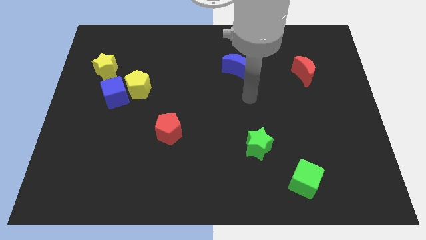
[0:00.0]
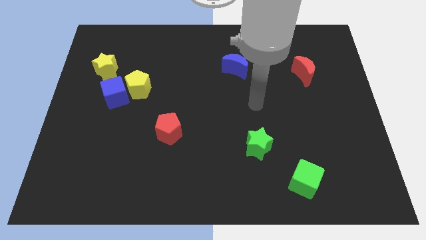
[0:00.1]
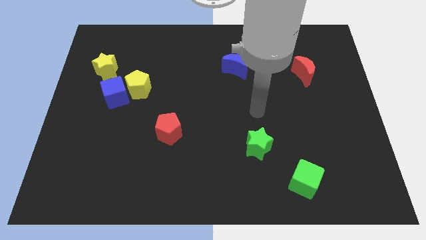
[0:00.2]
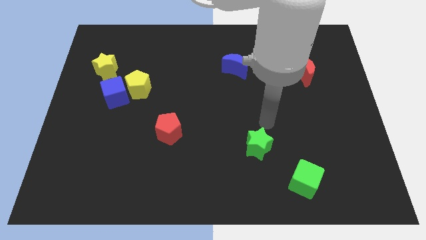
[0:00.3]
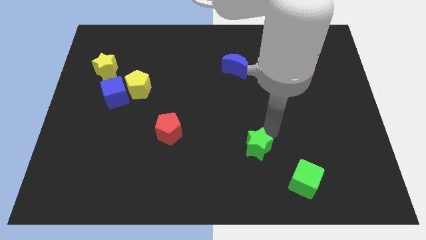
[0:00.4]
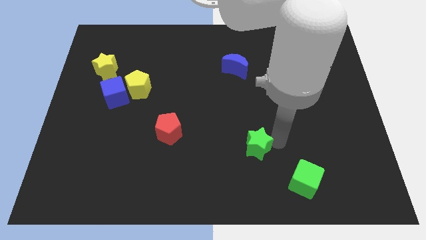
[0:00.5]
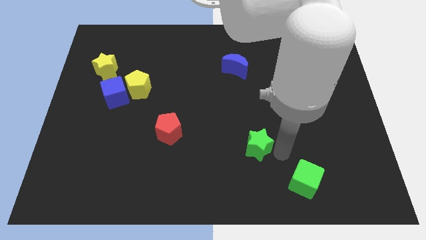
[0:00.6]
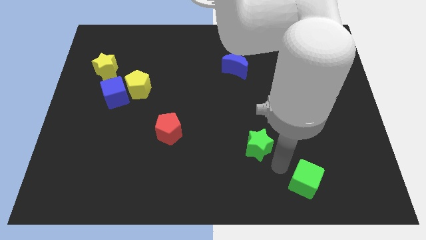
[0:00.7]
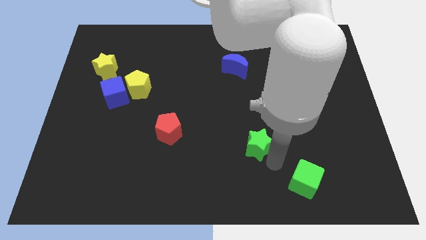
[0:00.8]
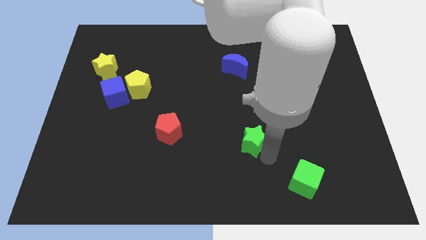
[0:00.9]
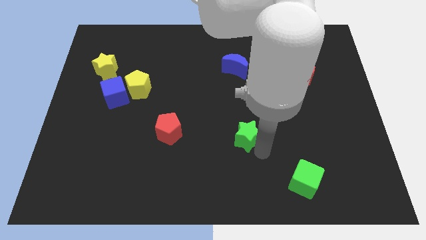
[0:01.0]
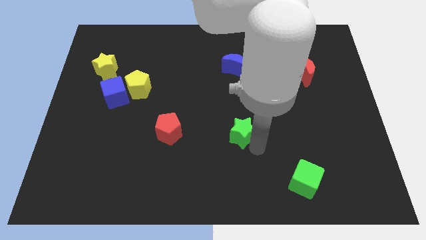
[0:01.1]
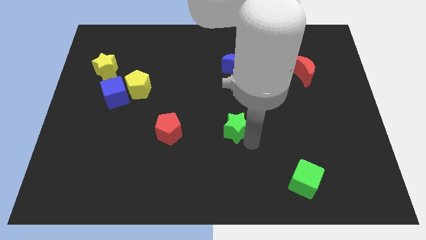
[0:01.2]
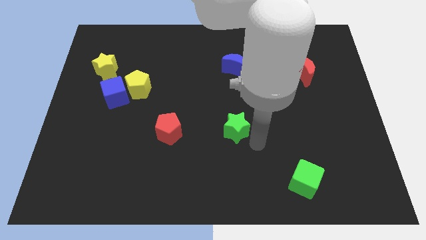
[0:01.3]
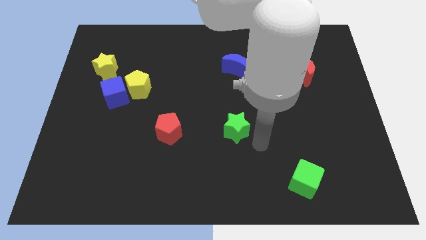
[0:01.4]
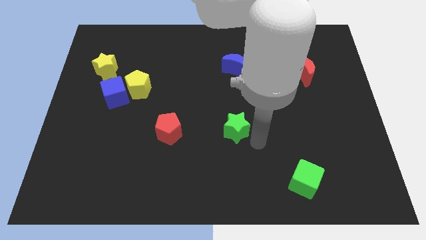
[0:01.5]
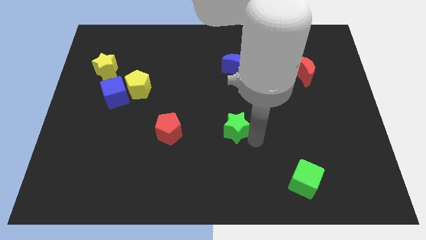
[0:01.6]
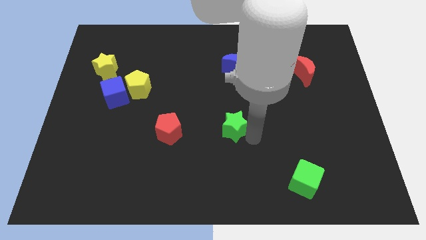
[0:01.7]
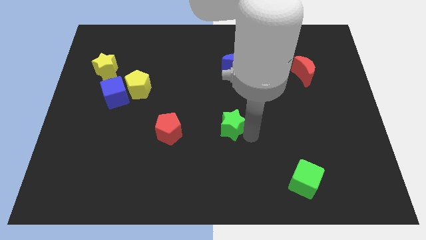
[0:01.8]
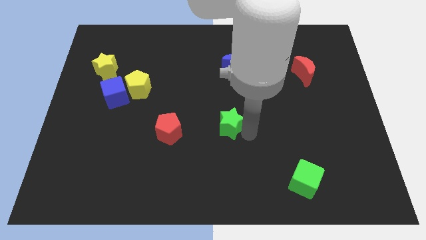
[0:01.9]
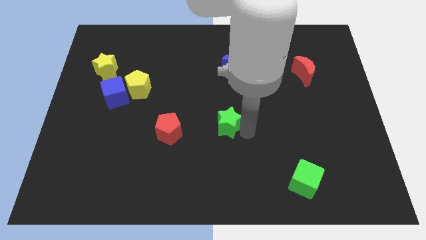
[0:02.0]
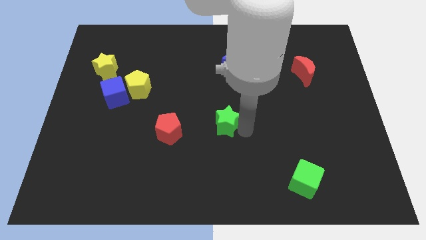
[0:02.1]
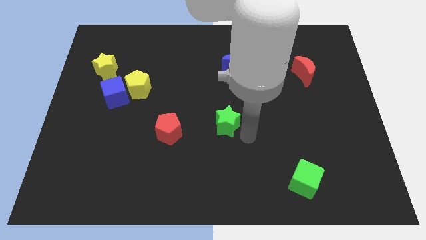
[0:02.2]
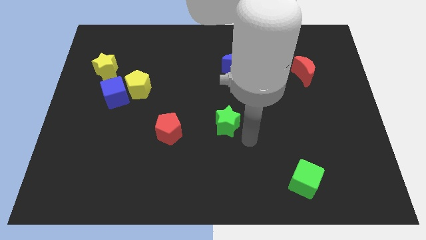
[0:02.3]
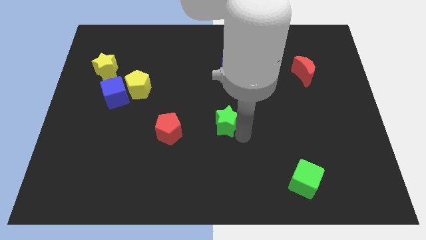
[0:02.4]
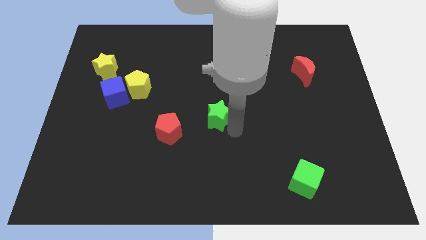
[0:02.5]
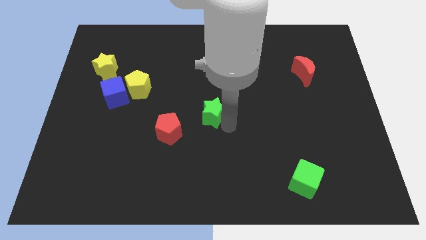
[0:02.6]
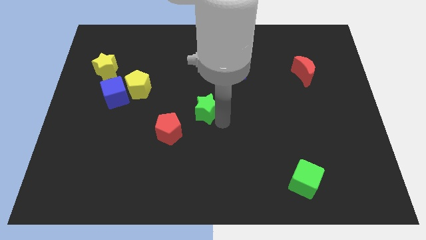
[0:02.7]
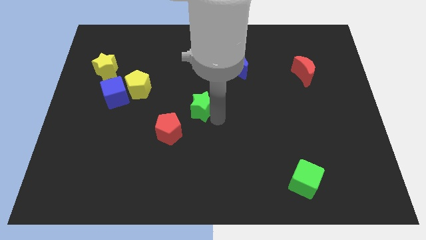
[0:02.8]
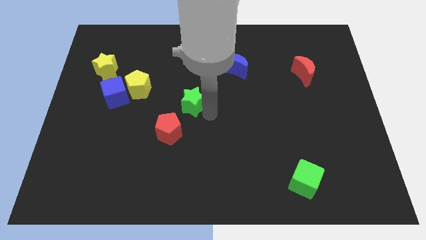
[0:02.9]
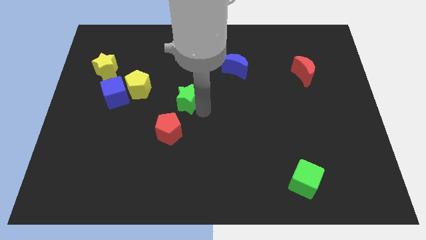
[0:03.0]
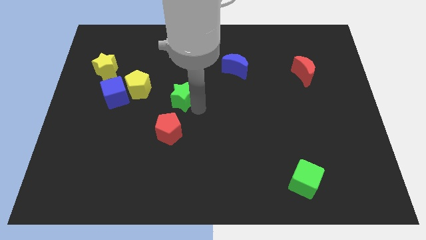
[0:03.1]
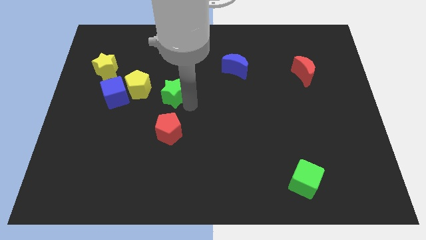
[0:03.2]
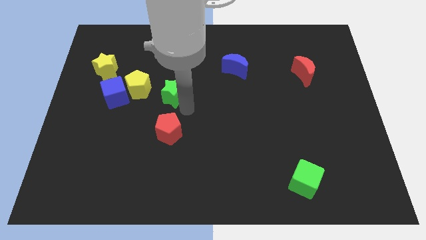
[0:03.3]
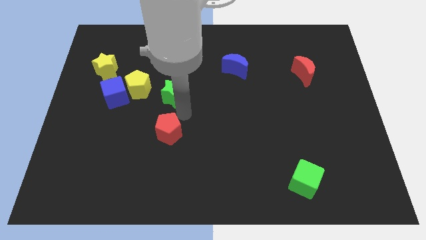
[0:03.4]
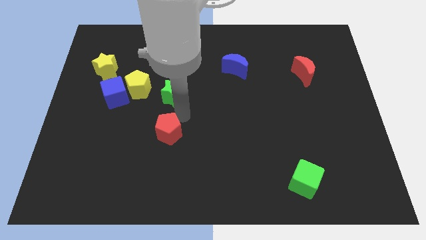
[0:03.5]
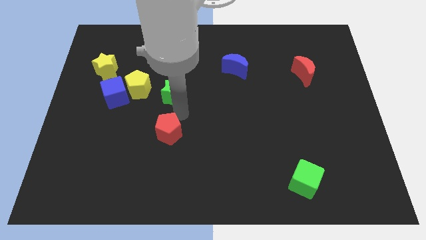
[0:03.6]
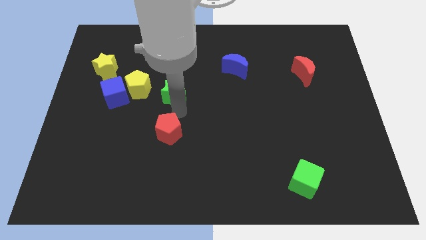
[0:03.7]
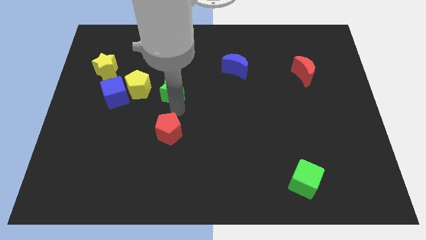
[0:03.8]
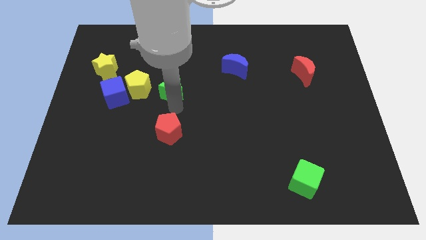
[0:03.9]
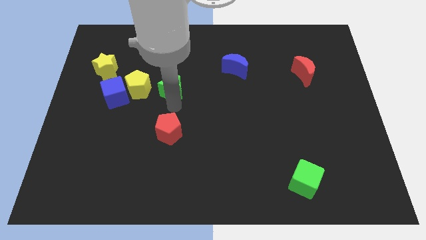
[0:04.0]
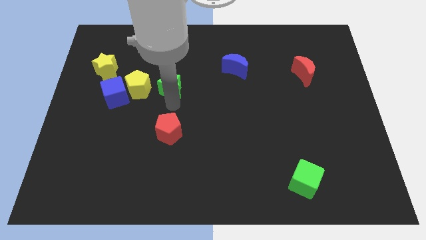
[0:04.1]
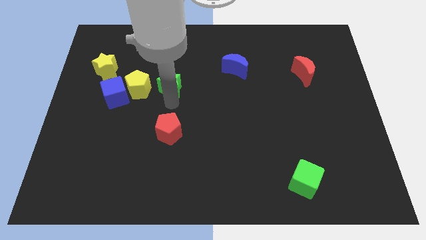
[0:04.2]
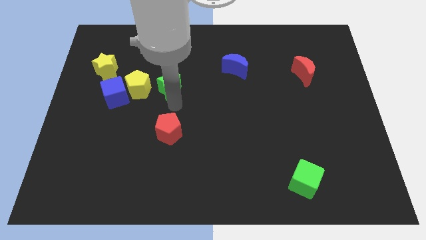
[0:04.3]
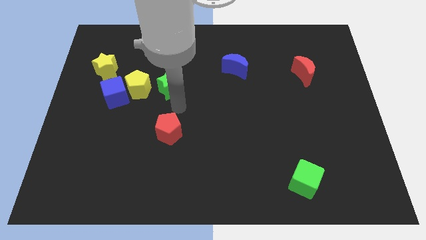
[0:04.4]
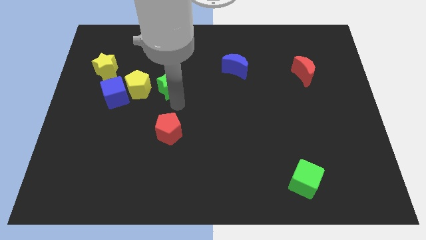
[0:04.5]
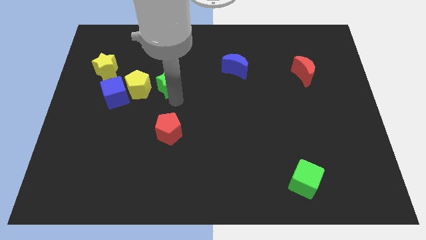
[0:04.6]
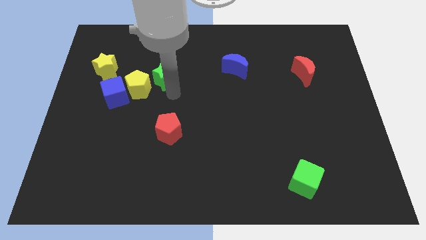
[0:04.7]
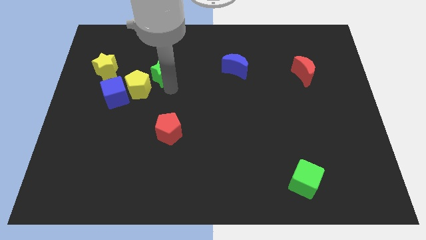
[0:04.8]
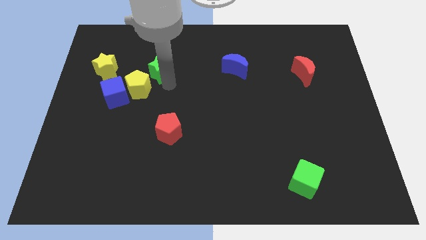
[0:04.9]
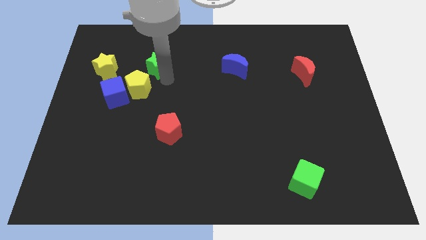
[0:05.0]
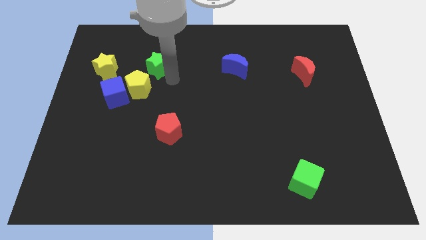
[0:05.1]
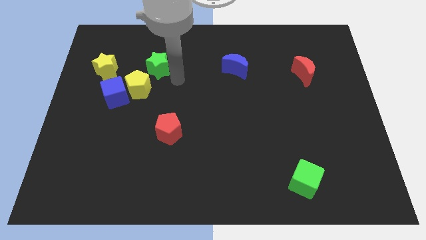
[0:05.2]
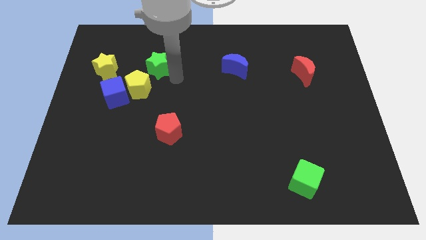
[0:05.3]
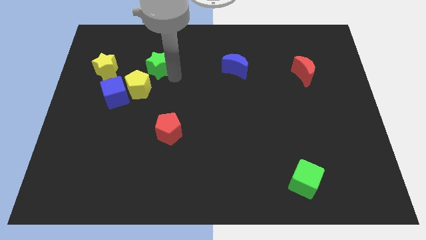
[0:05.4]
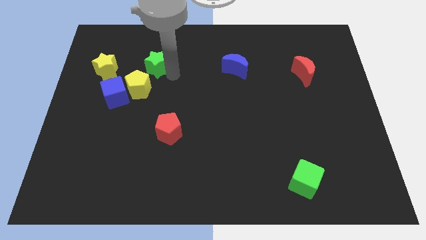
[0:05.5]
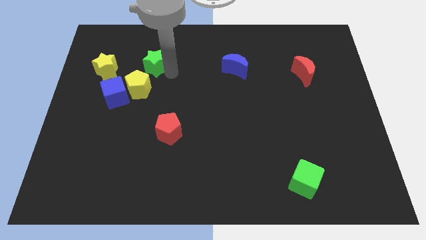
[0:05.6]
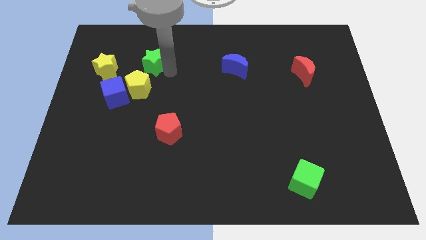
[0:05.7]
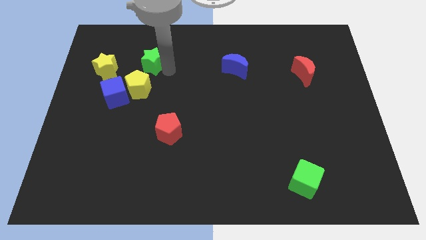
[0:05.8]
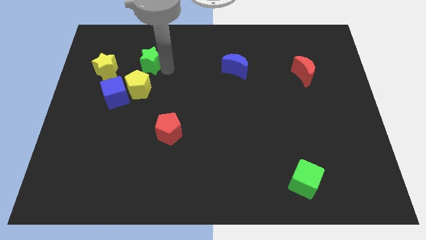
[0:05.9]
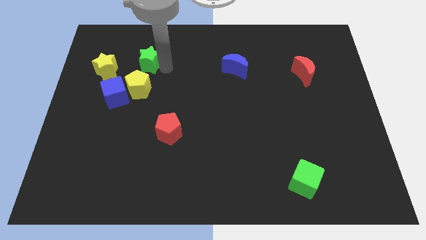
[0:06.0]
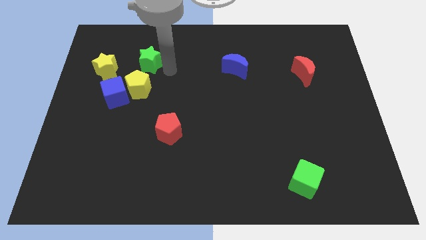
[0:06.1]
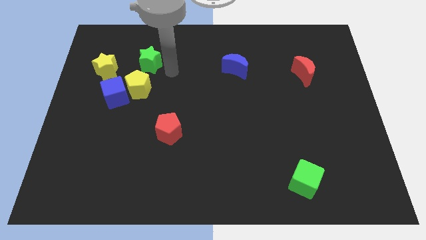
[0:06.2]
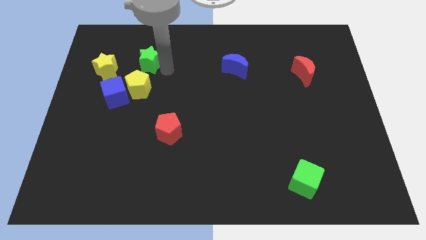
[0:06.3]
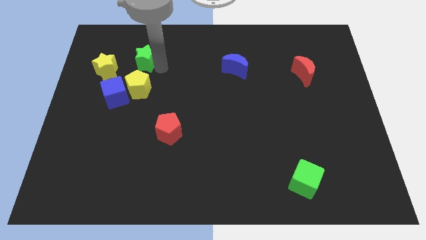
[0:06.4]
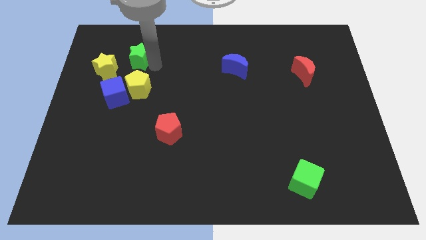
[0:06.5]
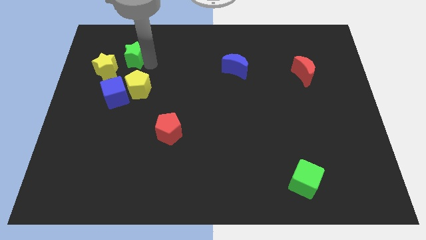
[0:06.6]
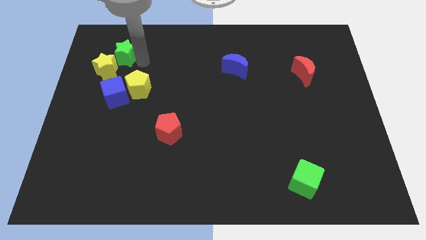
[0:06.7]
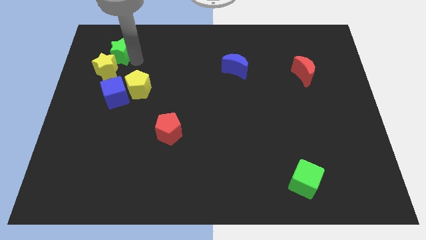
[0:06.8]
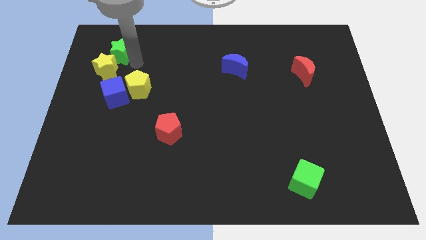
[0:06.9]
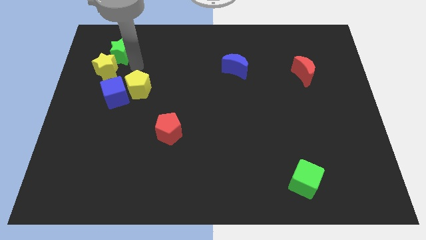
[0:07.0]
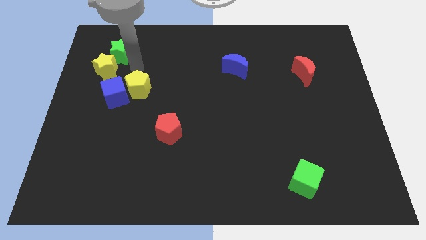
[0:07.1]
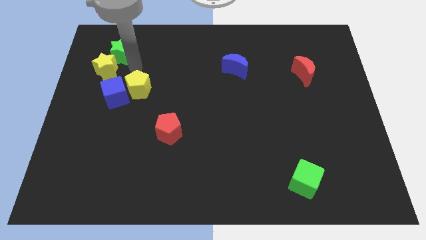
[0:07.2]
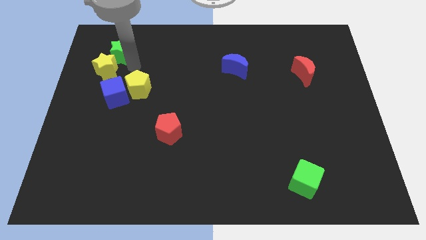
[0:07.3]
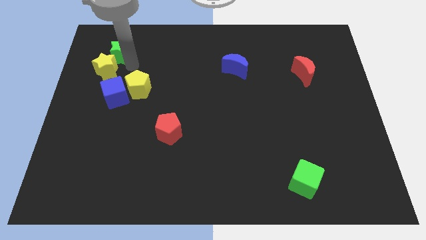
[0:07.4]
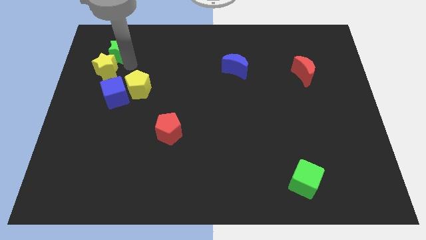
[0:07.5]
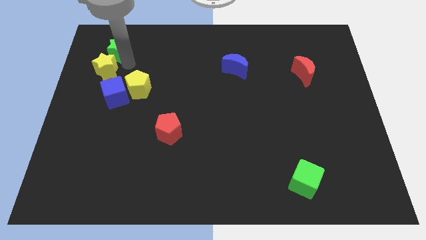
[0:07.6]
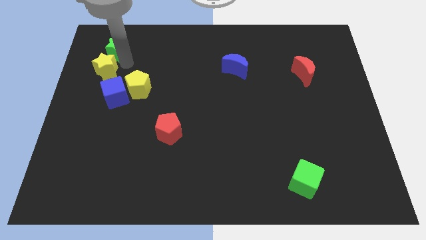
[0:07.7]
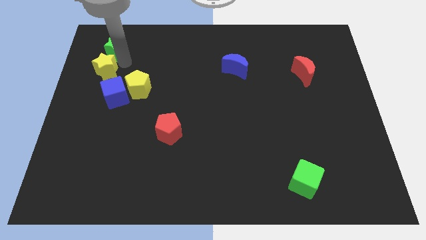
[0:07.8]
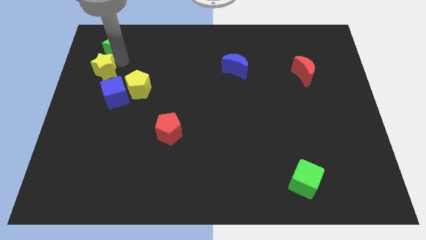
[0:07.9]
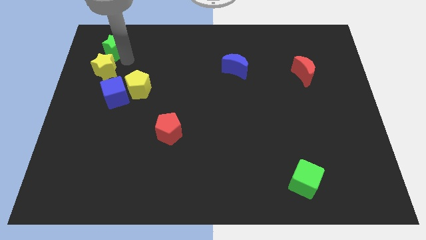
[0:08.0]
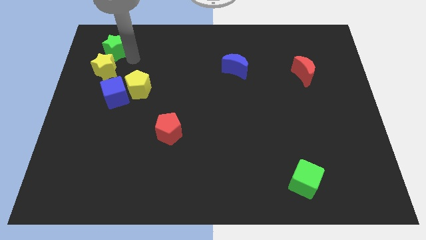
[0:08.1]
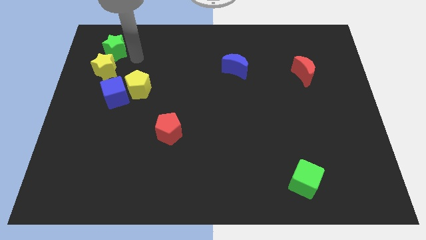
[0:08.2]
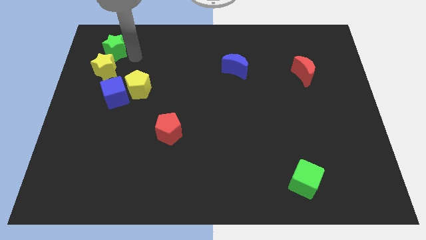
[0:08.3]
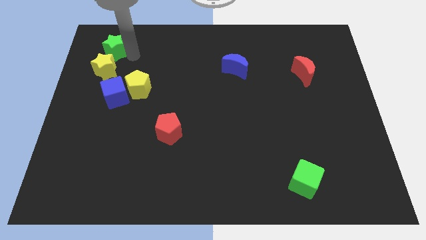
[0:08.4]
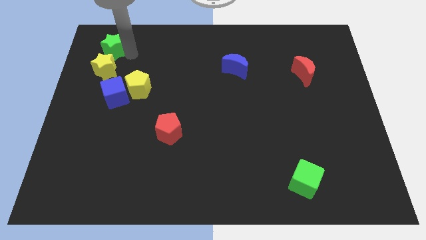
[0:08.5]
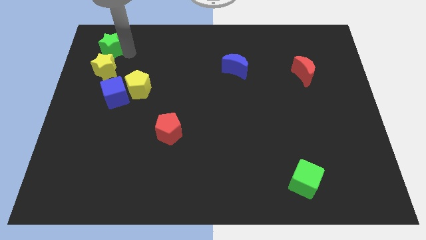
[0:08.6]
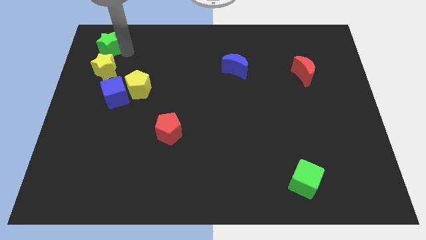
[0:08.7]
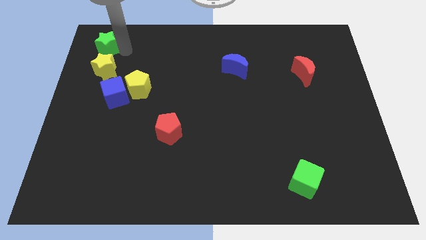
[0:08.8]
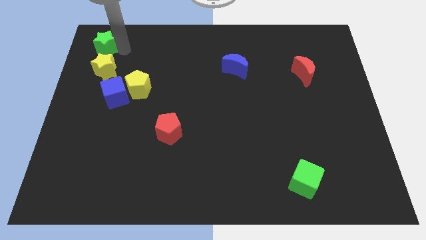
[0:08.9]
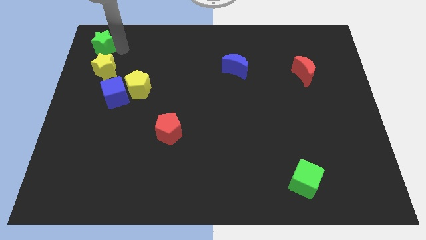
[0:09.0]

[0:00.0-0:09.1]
push the green star to the top left
